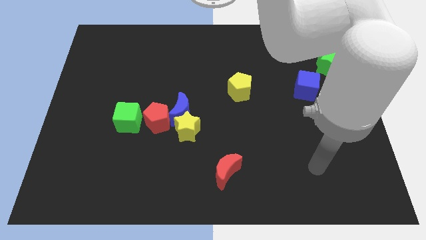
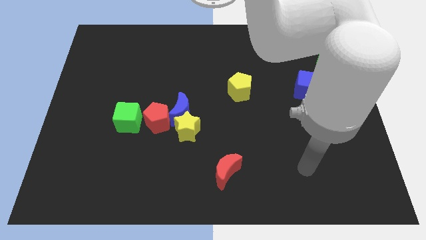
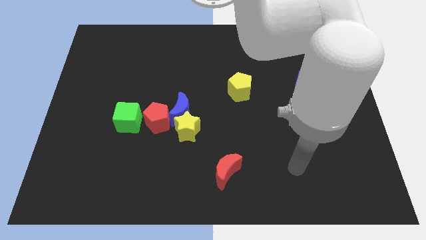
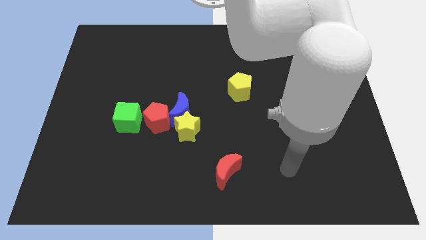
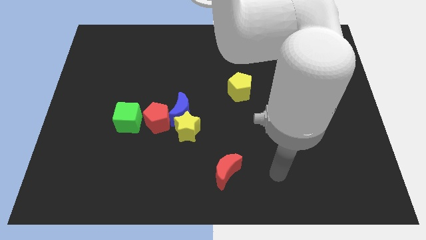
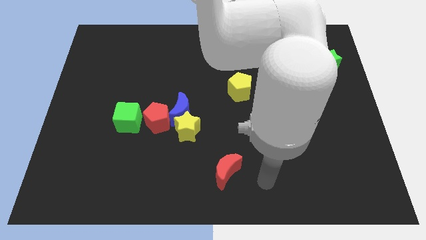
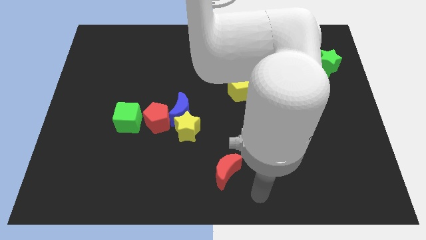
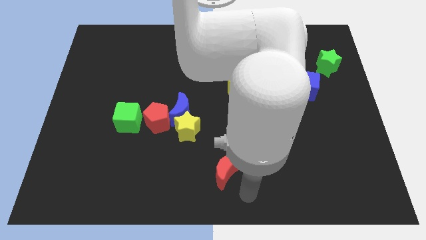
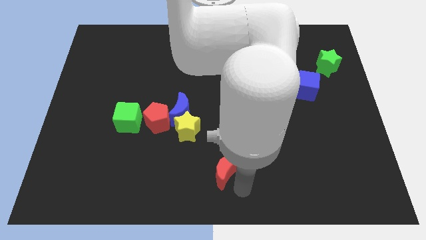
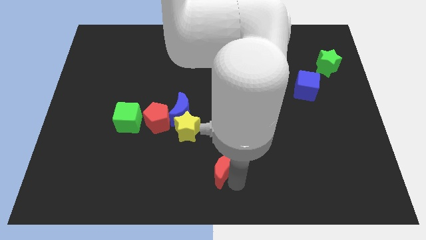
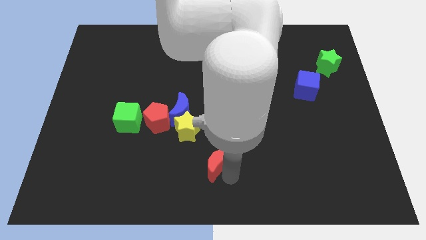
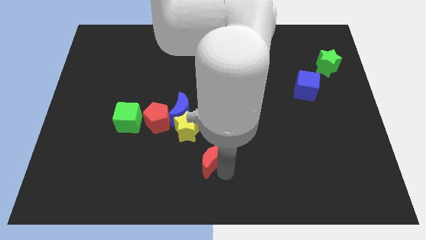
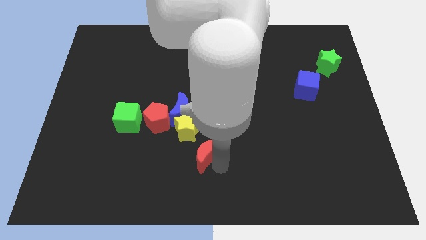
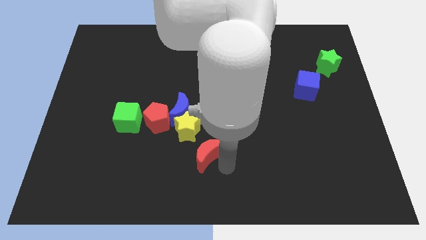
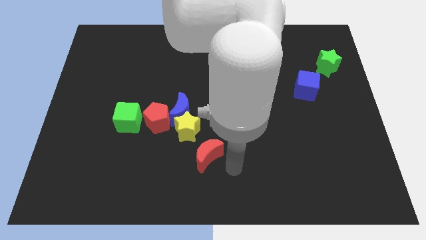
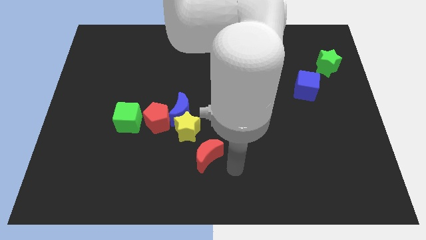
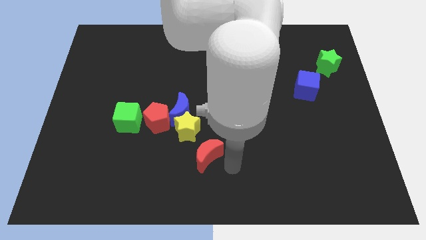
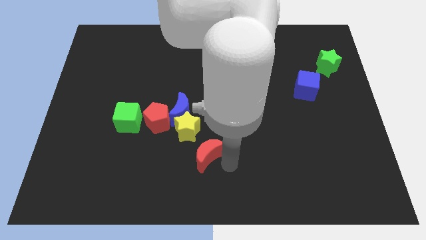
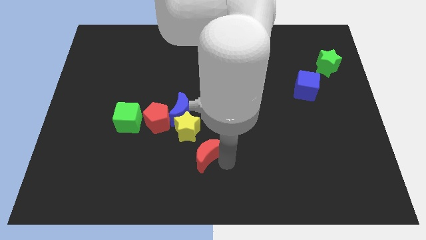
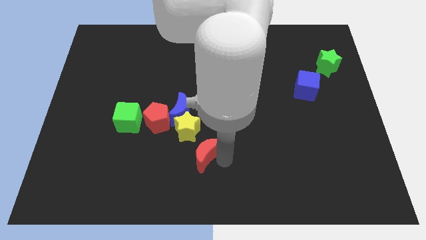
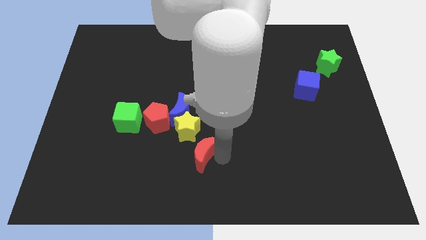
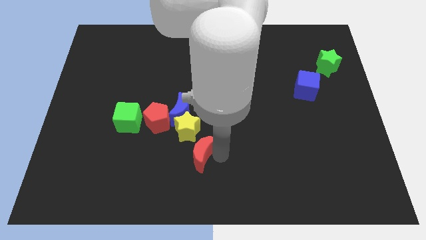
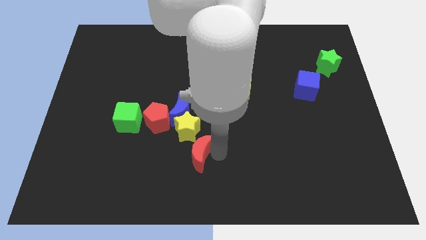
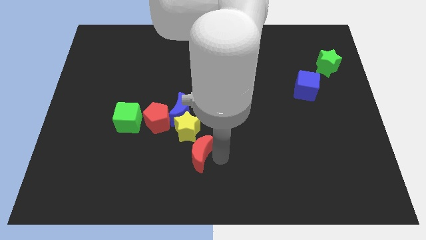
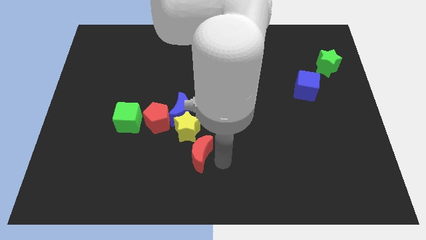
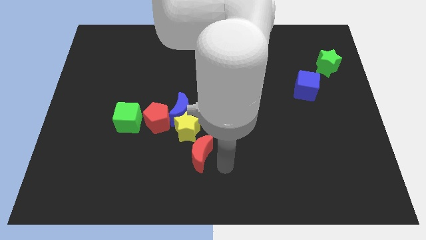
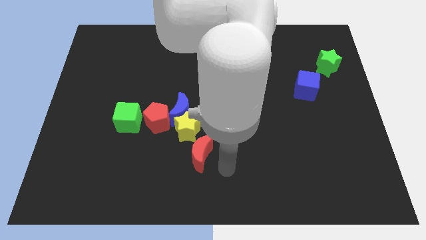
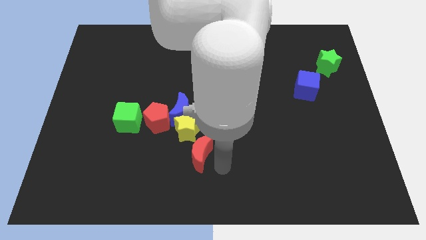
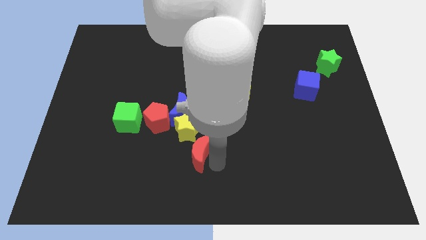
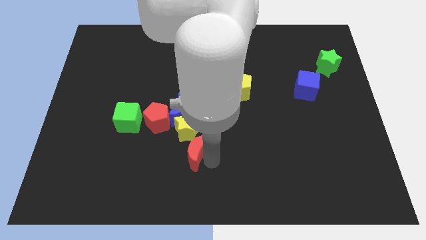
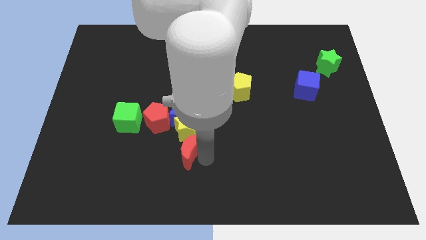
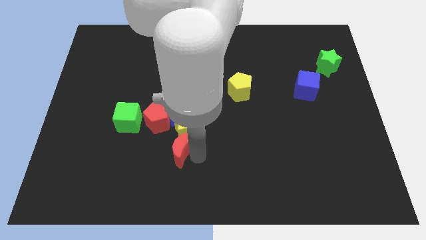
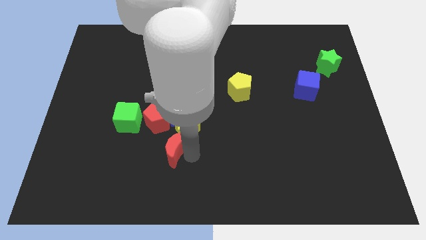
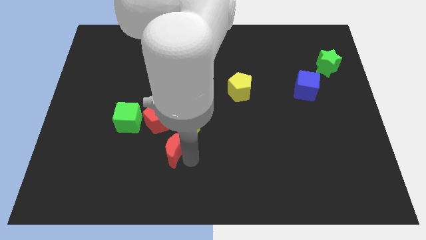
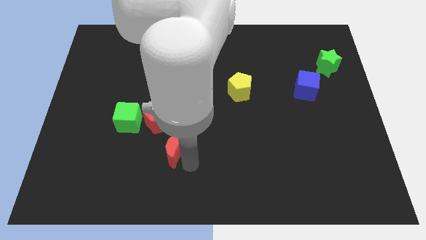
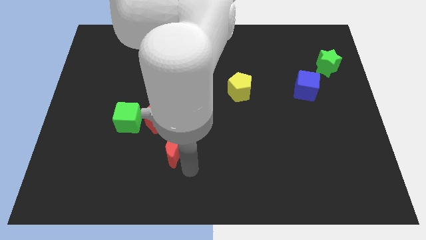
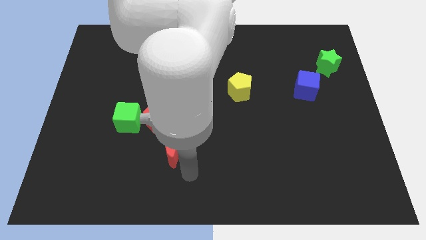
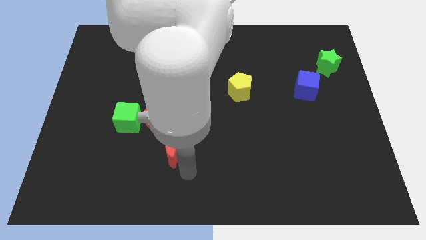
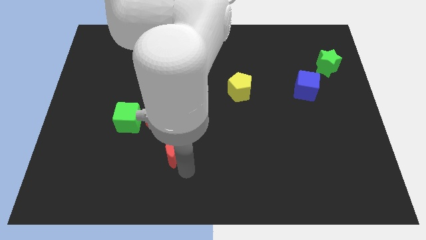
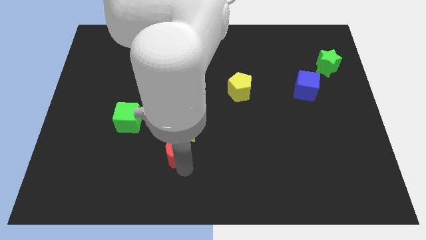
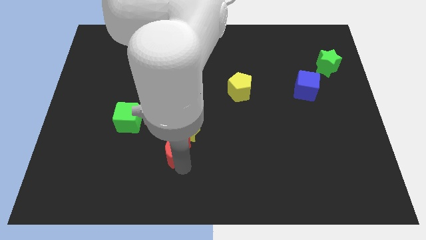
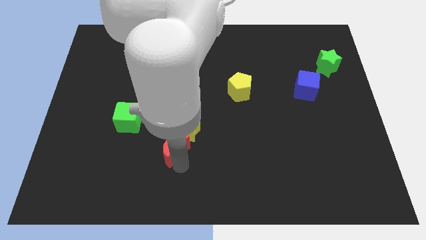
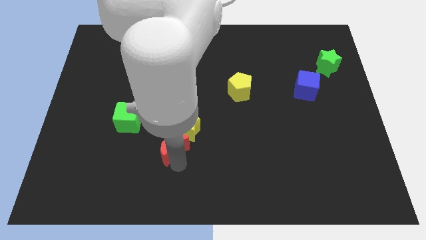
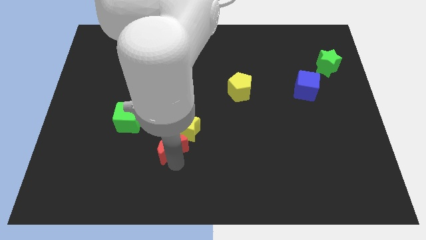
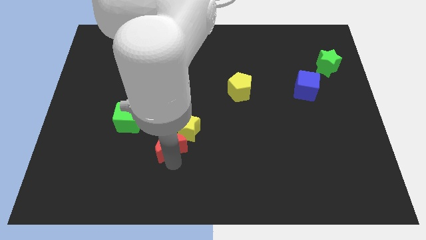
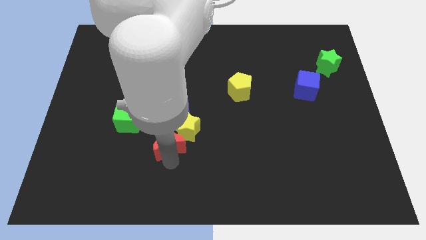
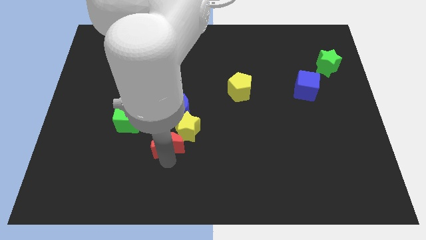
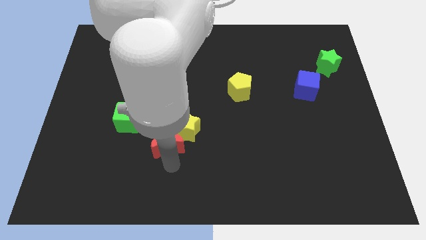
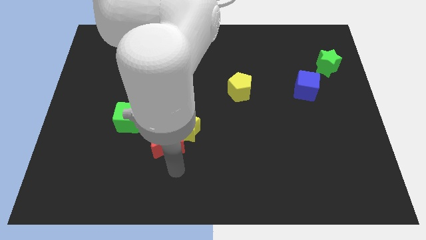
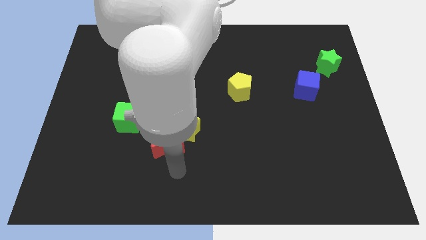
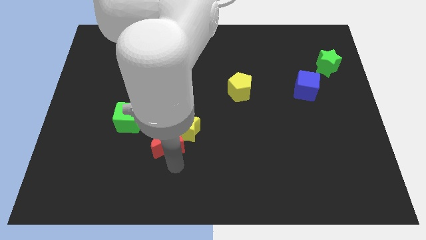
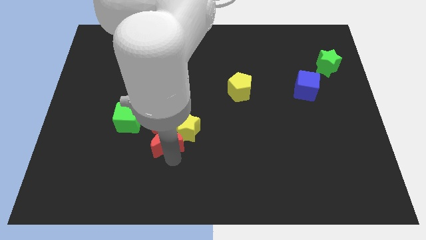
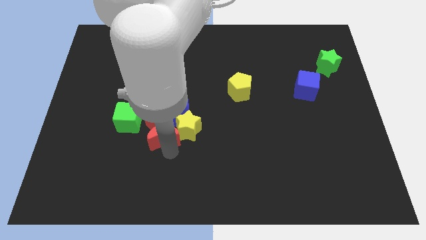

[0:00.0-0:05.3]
put the red moon close to the red pentagon
